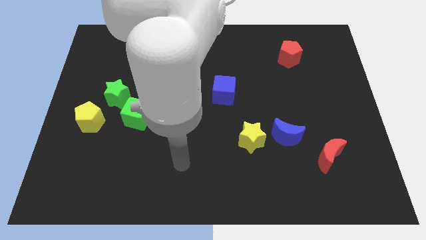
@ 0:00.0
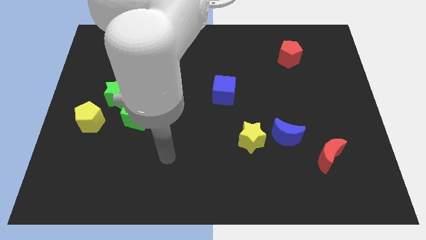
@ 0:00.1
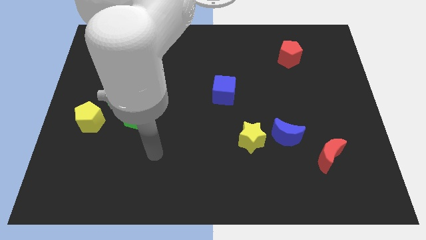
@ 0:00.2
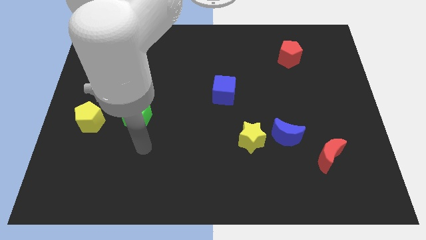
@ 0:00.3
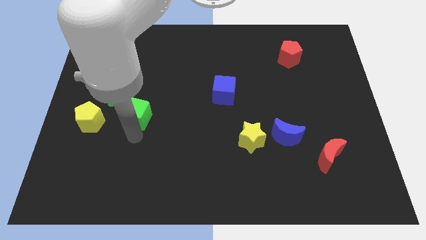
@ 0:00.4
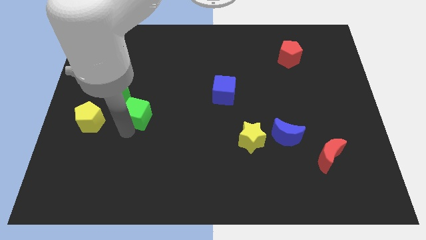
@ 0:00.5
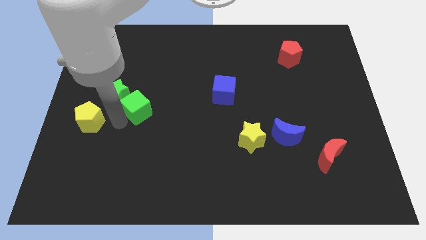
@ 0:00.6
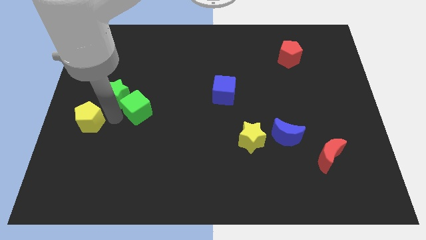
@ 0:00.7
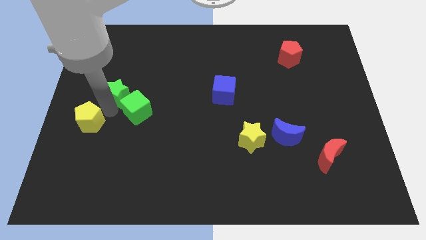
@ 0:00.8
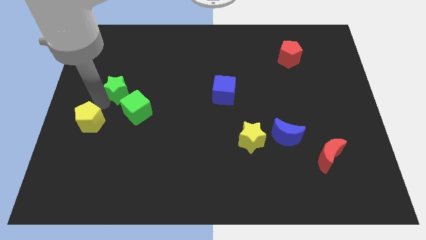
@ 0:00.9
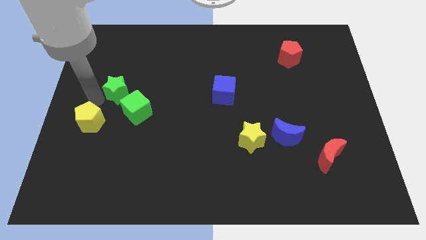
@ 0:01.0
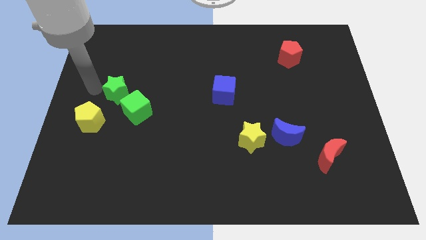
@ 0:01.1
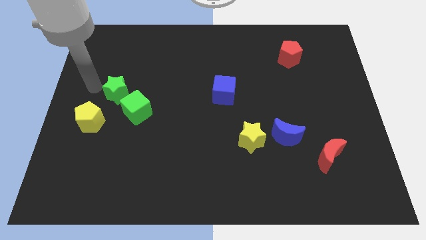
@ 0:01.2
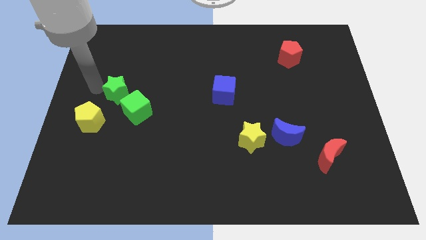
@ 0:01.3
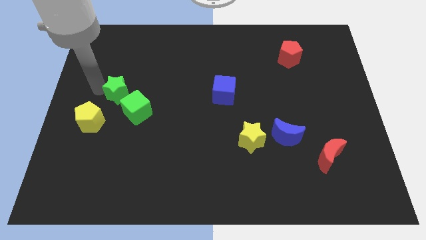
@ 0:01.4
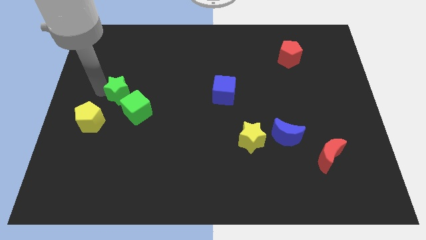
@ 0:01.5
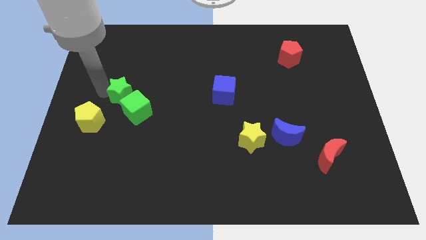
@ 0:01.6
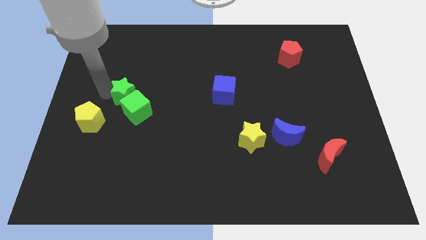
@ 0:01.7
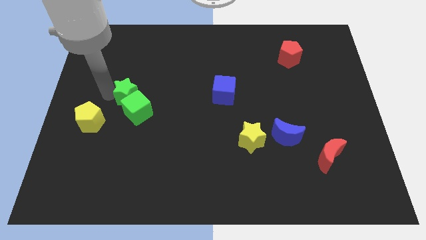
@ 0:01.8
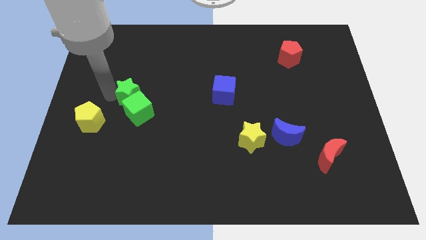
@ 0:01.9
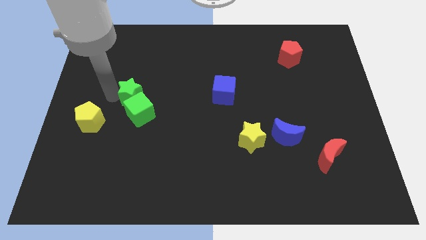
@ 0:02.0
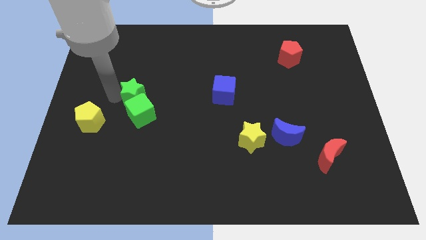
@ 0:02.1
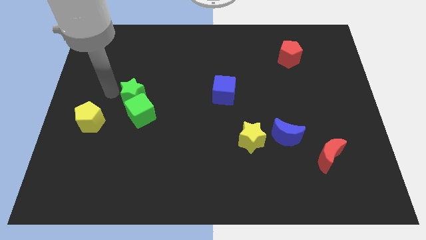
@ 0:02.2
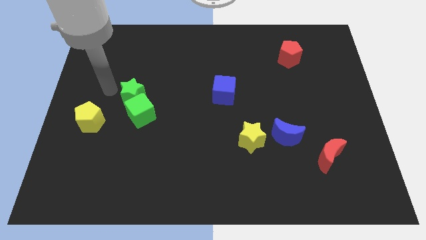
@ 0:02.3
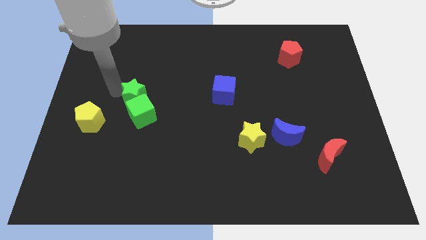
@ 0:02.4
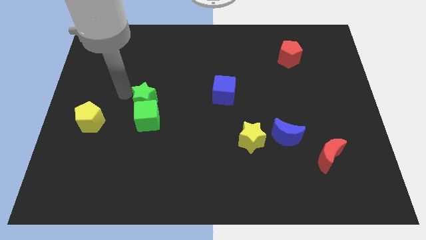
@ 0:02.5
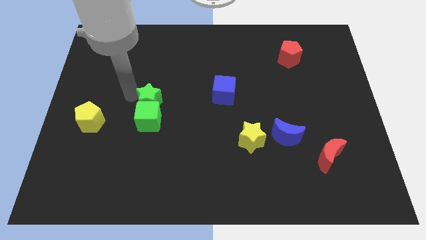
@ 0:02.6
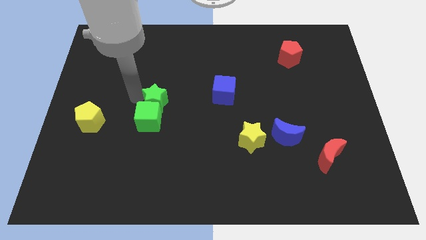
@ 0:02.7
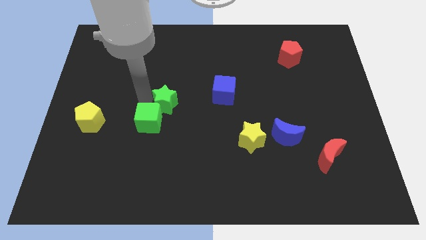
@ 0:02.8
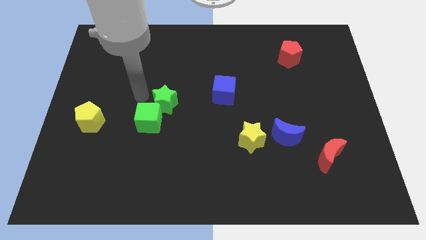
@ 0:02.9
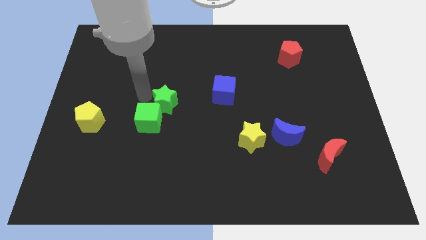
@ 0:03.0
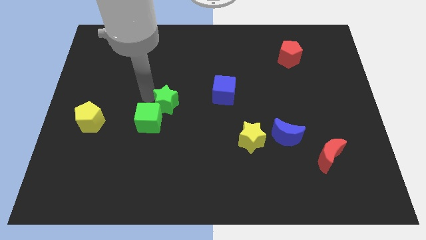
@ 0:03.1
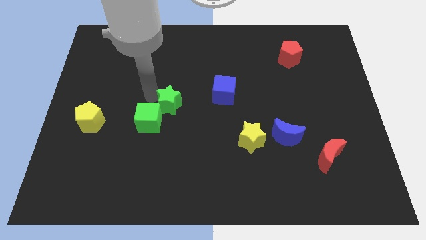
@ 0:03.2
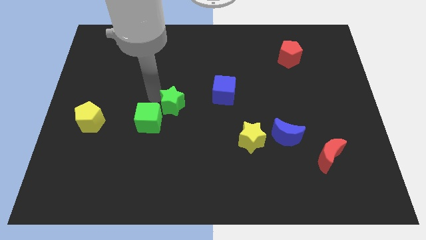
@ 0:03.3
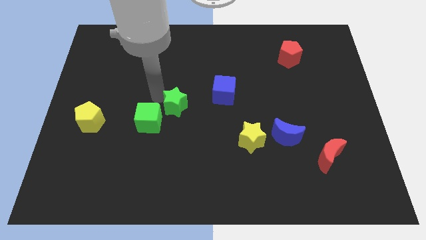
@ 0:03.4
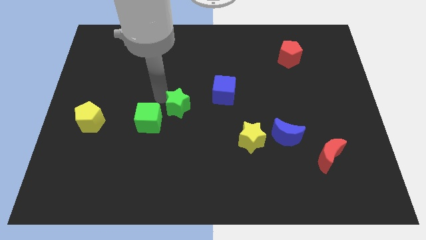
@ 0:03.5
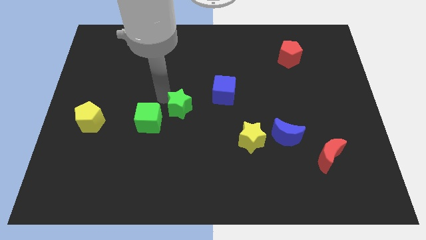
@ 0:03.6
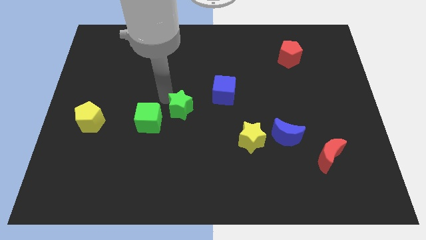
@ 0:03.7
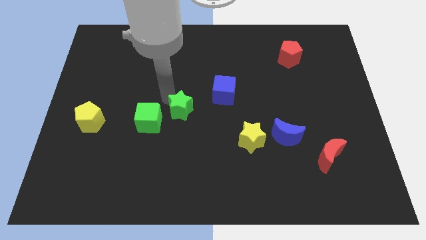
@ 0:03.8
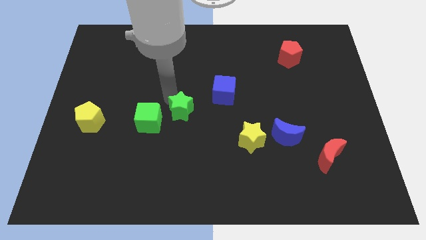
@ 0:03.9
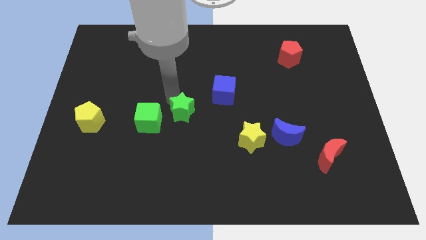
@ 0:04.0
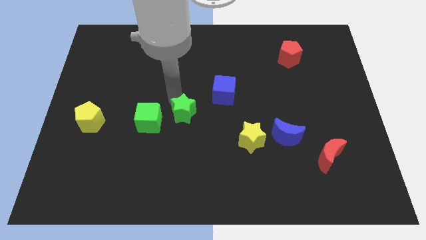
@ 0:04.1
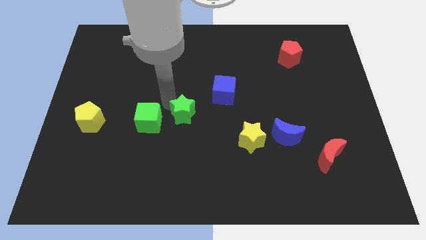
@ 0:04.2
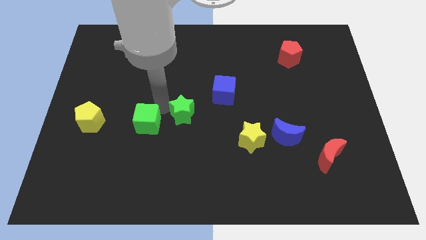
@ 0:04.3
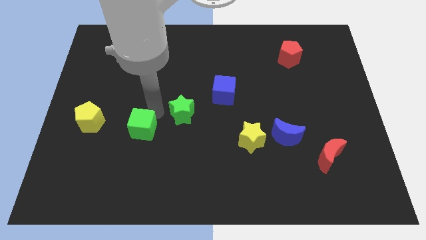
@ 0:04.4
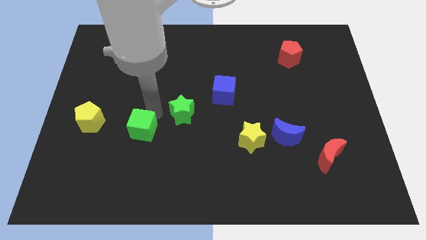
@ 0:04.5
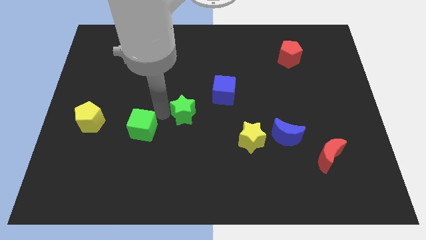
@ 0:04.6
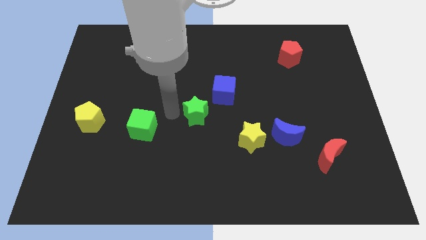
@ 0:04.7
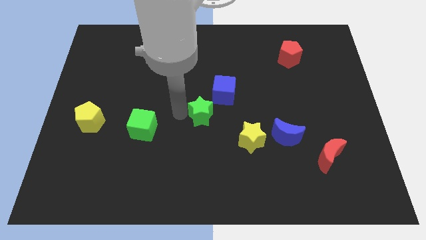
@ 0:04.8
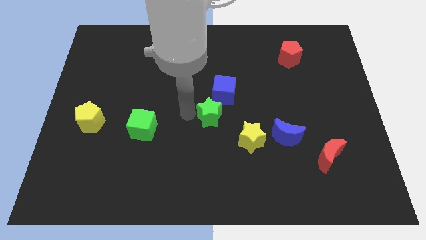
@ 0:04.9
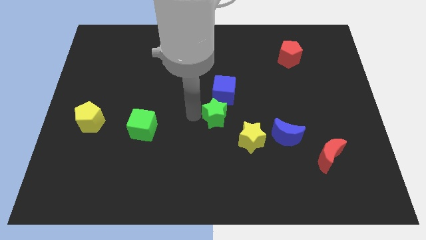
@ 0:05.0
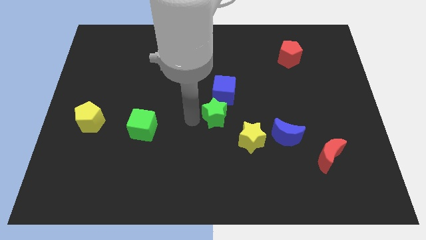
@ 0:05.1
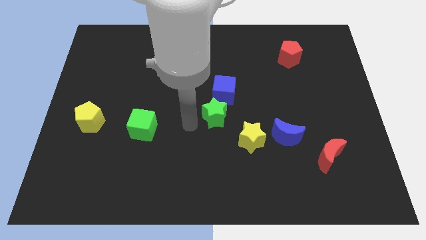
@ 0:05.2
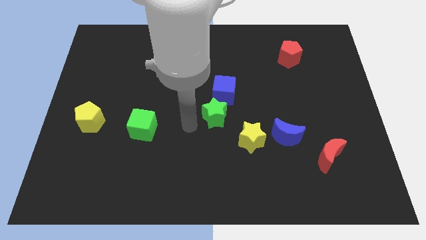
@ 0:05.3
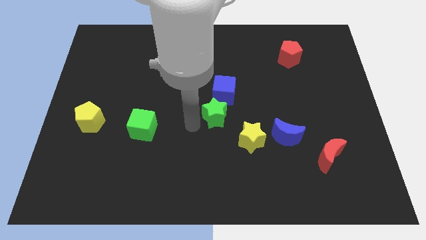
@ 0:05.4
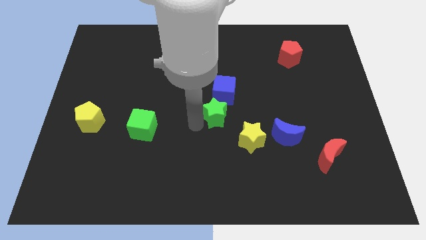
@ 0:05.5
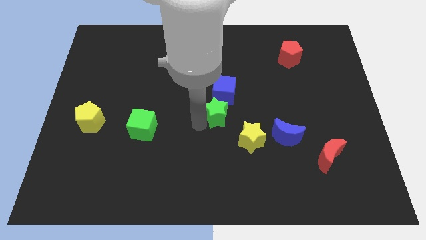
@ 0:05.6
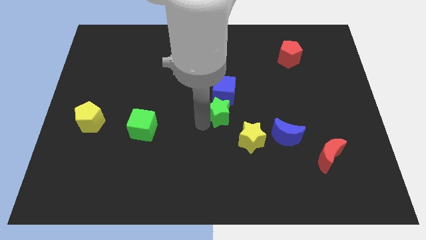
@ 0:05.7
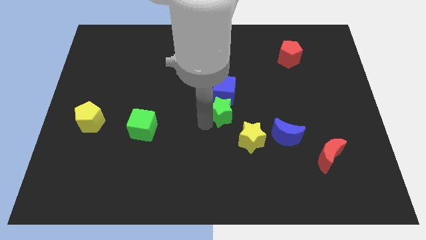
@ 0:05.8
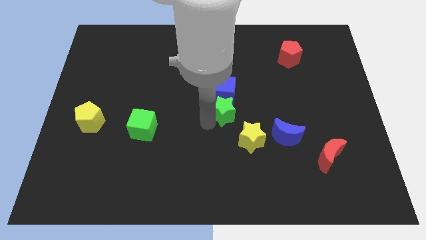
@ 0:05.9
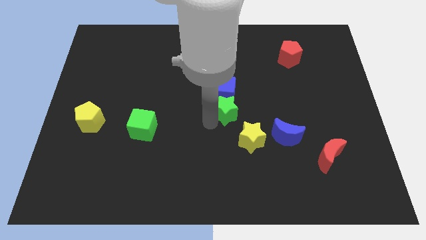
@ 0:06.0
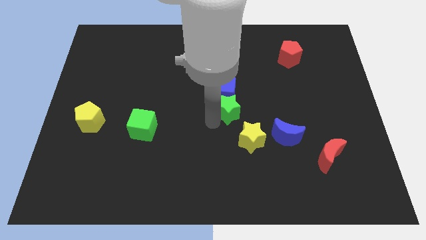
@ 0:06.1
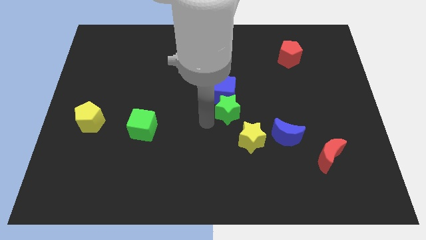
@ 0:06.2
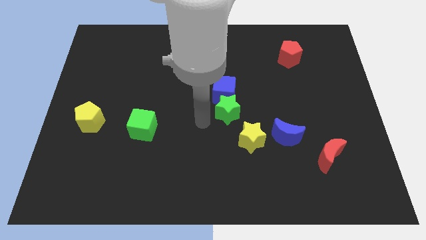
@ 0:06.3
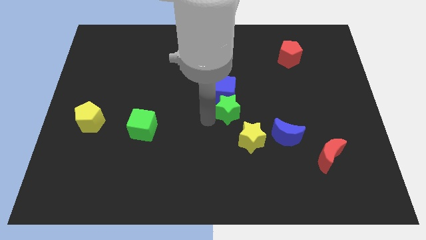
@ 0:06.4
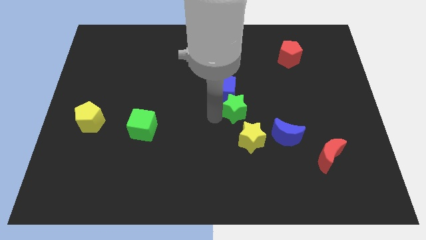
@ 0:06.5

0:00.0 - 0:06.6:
slide the green star to the top of the yellow star

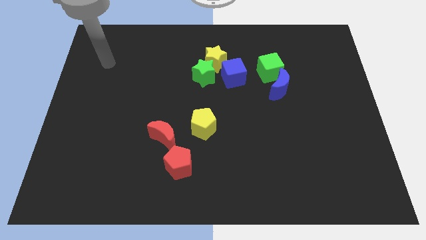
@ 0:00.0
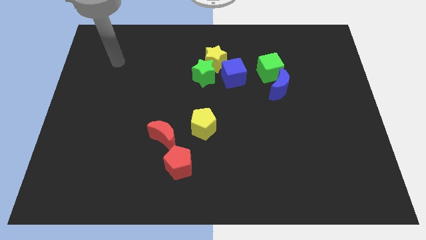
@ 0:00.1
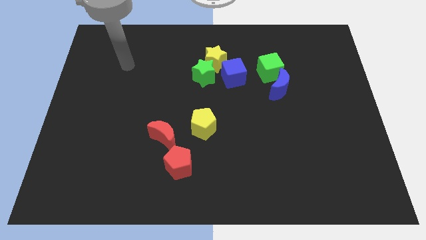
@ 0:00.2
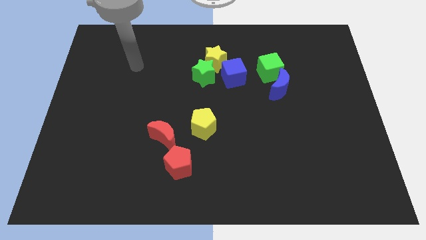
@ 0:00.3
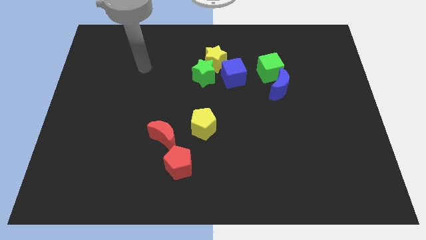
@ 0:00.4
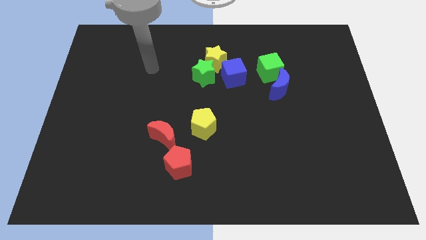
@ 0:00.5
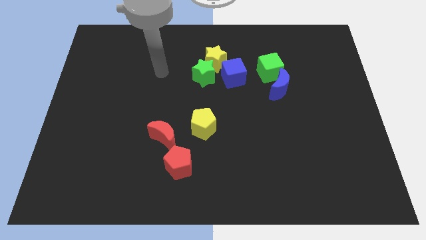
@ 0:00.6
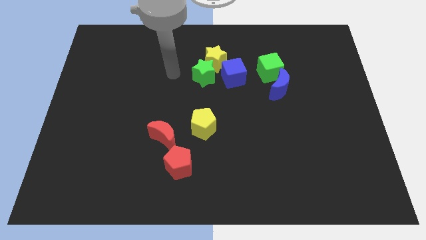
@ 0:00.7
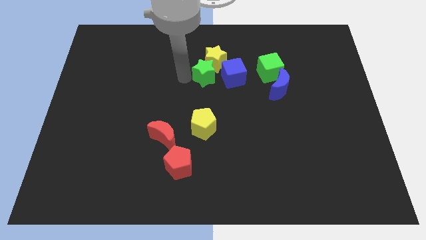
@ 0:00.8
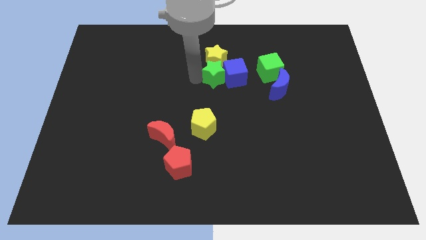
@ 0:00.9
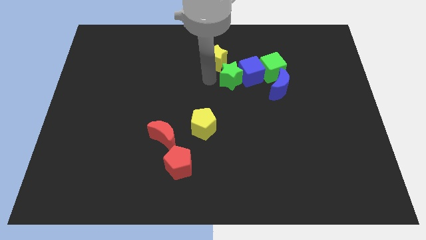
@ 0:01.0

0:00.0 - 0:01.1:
slide the blue cube to the top left of the blue moon
